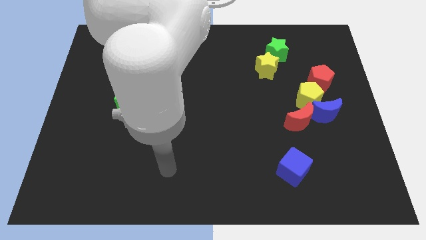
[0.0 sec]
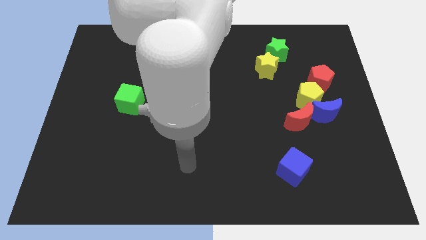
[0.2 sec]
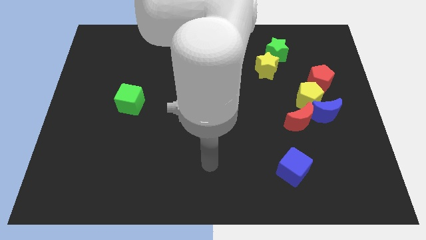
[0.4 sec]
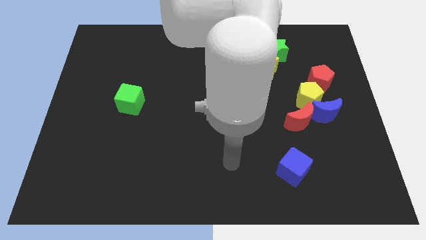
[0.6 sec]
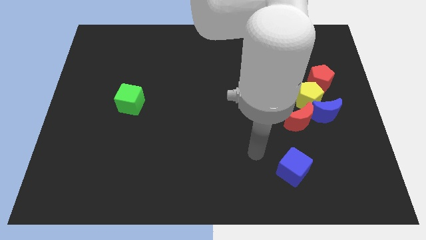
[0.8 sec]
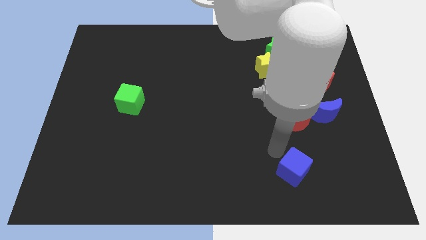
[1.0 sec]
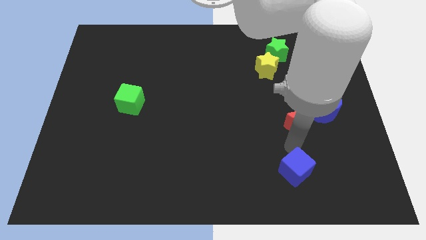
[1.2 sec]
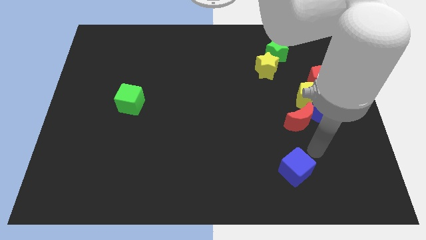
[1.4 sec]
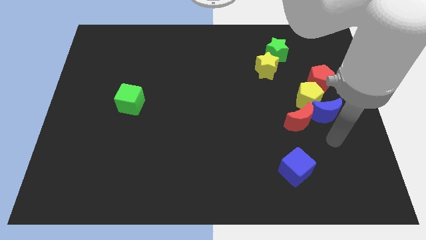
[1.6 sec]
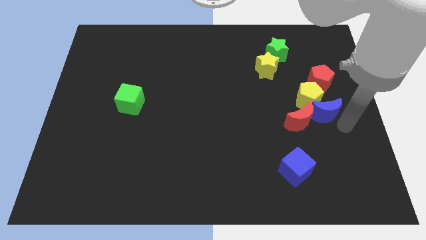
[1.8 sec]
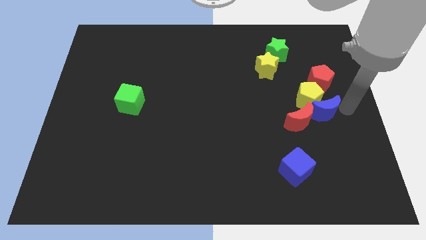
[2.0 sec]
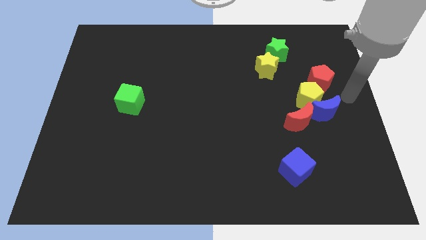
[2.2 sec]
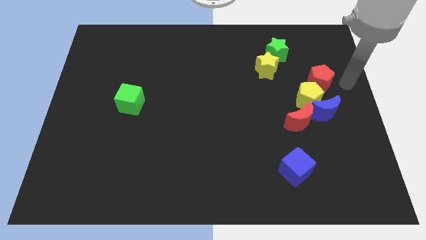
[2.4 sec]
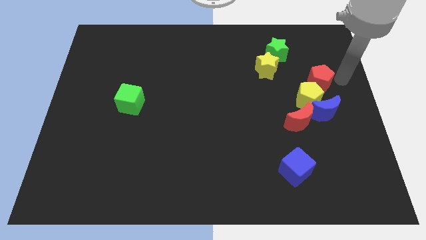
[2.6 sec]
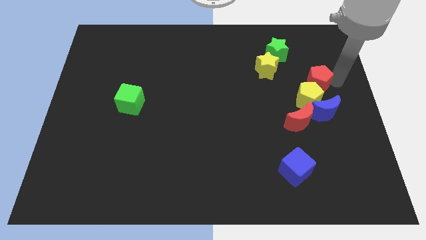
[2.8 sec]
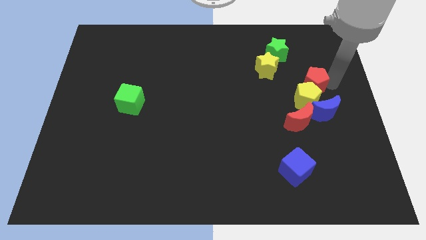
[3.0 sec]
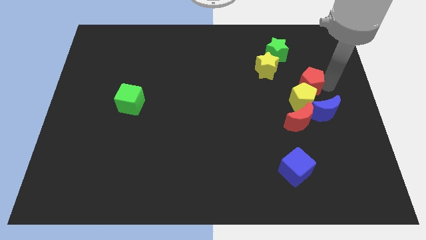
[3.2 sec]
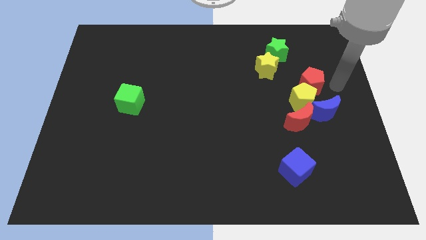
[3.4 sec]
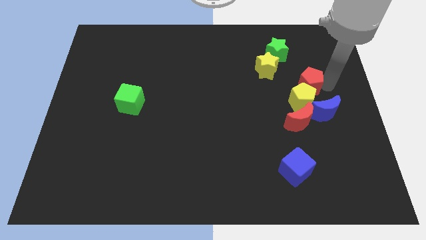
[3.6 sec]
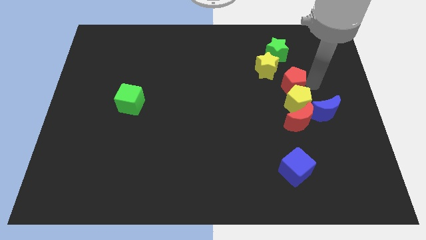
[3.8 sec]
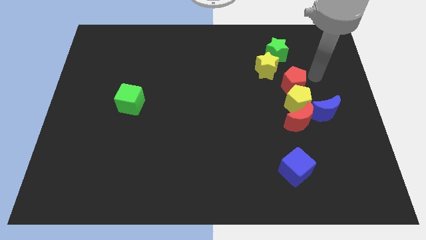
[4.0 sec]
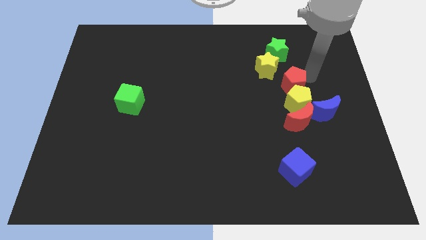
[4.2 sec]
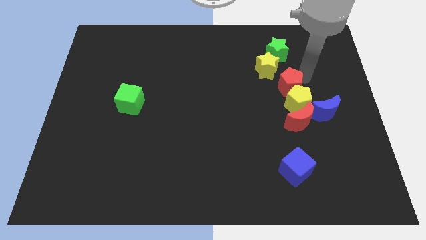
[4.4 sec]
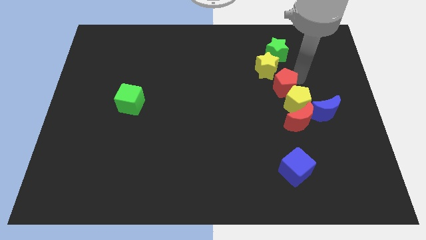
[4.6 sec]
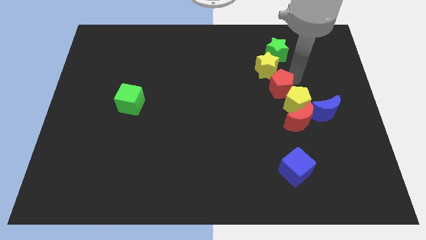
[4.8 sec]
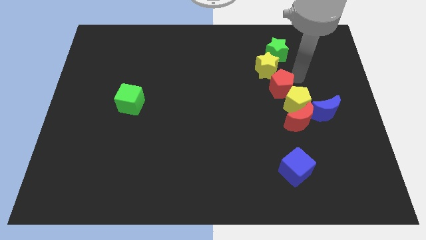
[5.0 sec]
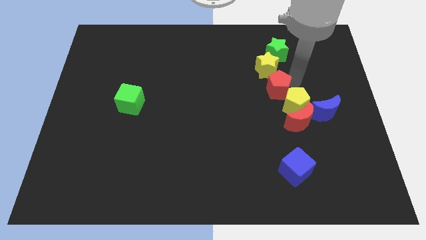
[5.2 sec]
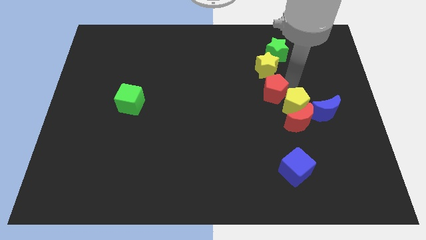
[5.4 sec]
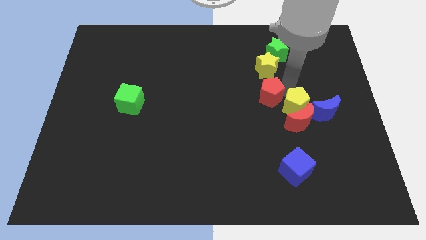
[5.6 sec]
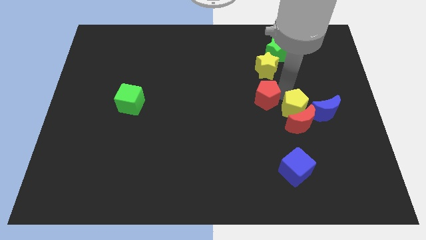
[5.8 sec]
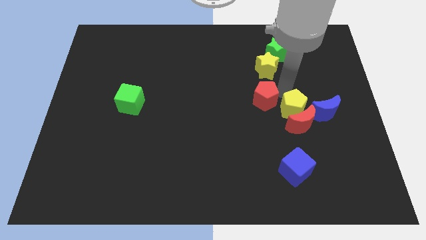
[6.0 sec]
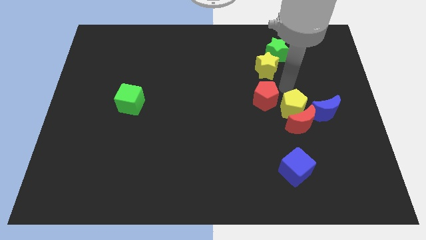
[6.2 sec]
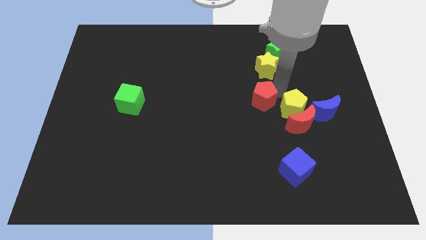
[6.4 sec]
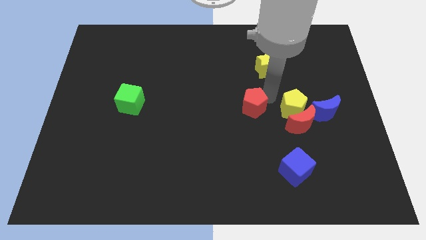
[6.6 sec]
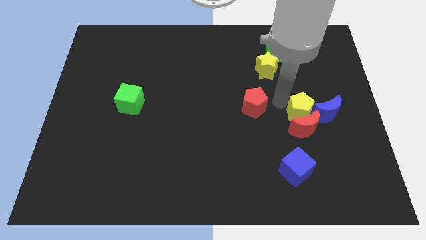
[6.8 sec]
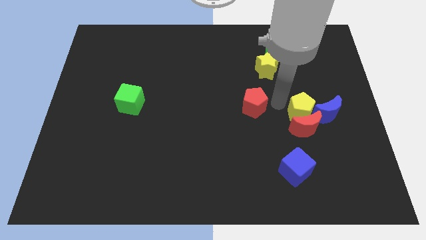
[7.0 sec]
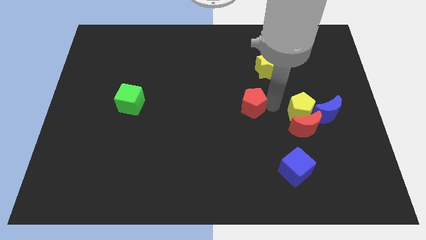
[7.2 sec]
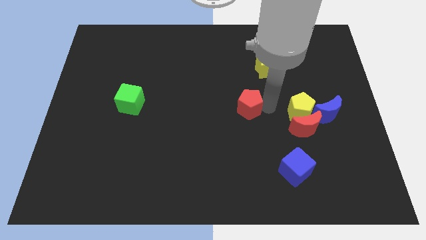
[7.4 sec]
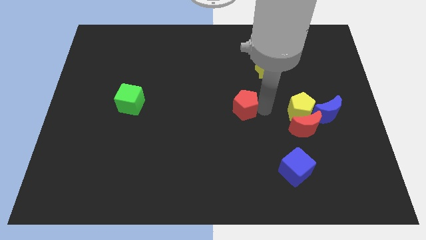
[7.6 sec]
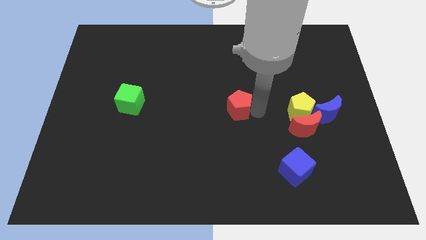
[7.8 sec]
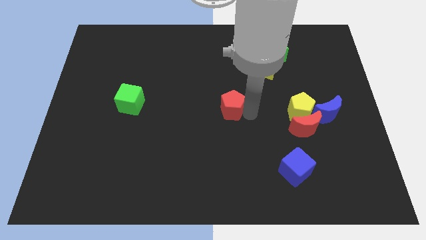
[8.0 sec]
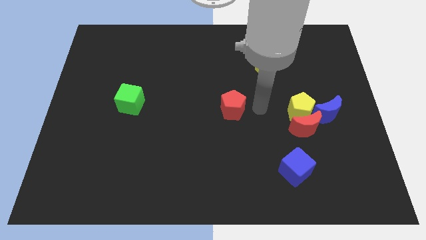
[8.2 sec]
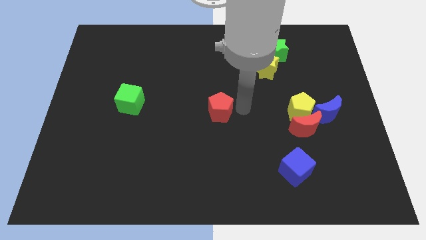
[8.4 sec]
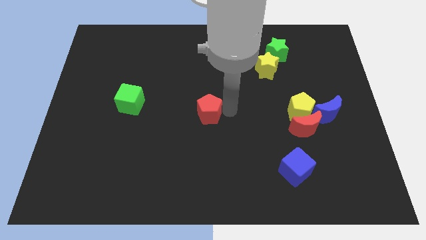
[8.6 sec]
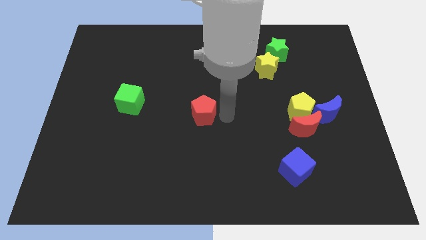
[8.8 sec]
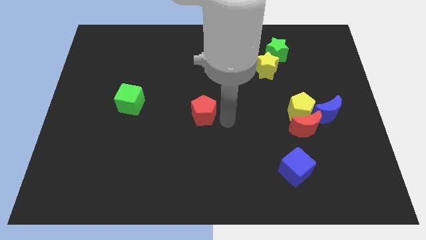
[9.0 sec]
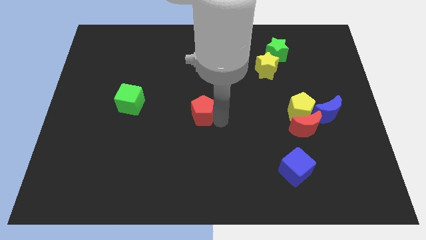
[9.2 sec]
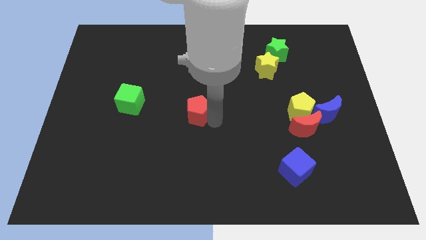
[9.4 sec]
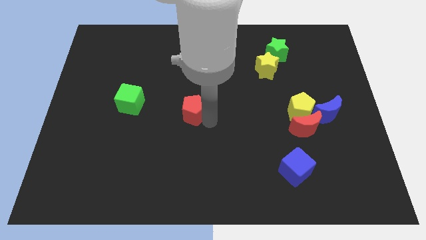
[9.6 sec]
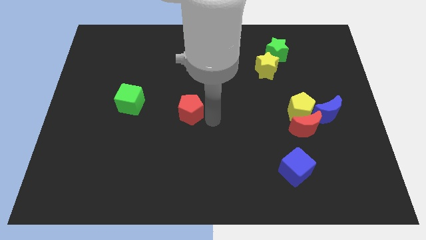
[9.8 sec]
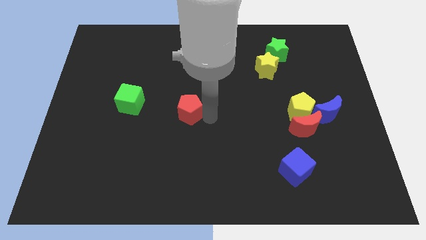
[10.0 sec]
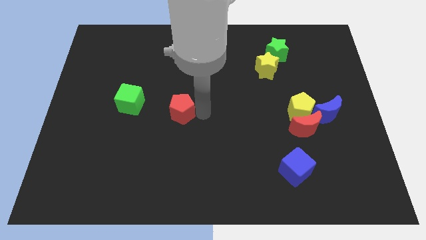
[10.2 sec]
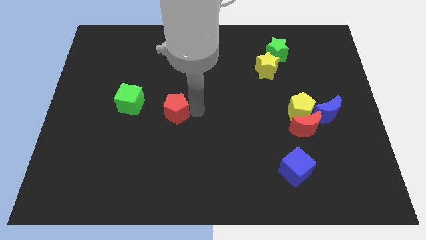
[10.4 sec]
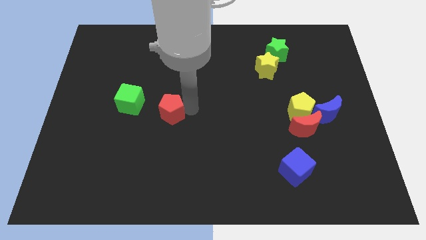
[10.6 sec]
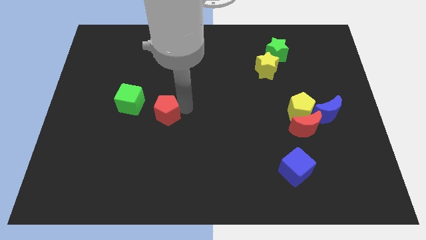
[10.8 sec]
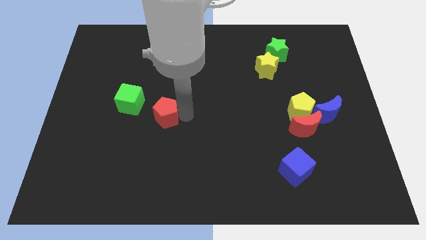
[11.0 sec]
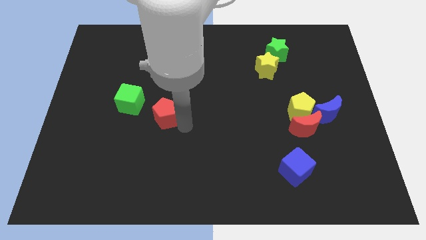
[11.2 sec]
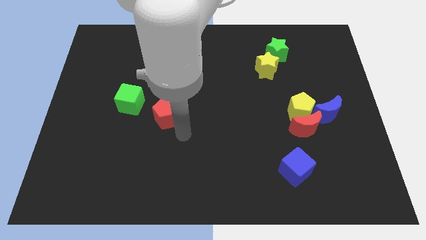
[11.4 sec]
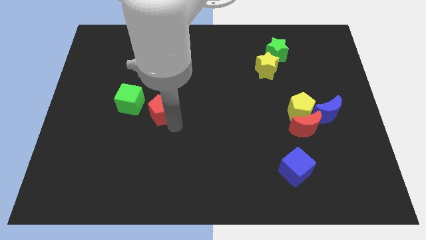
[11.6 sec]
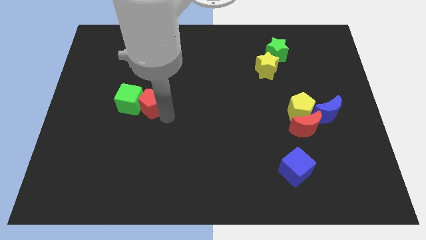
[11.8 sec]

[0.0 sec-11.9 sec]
push the red pentagon to the green cube

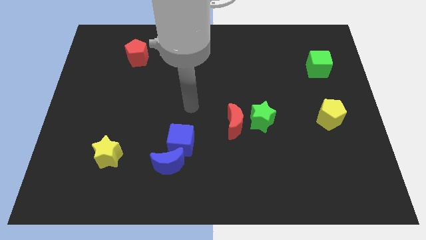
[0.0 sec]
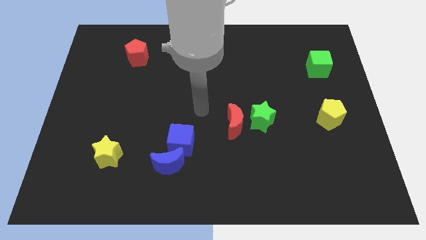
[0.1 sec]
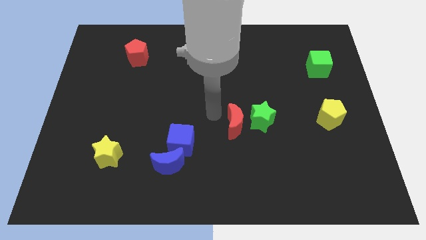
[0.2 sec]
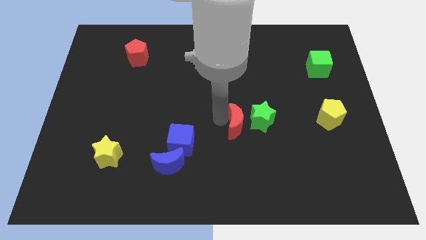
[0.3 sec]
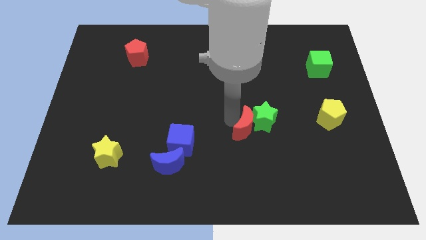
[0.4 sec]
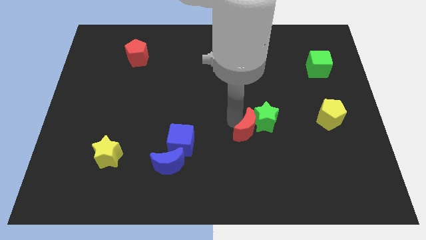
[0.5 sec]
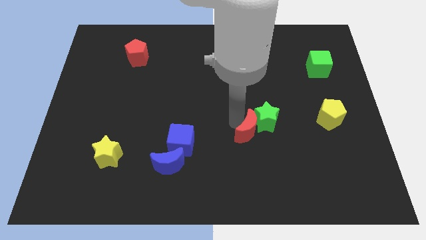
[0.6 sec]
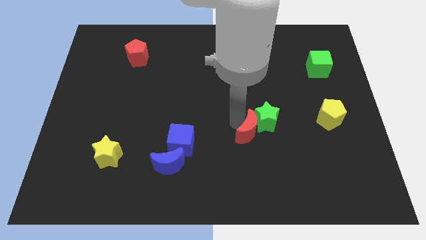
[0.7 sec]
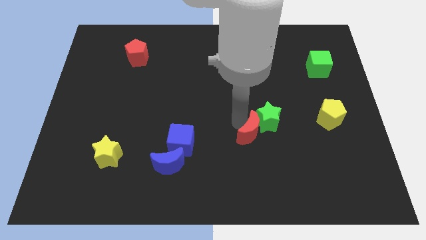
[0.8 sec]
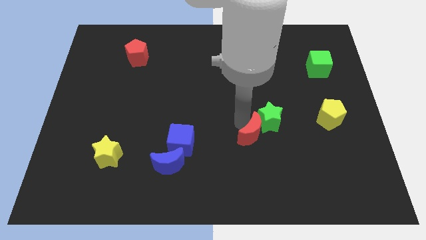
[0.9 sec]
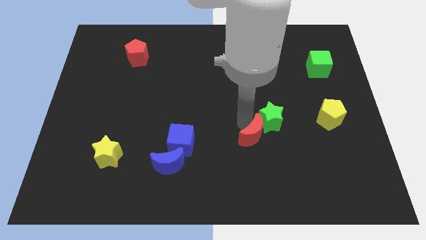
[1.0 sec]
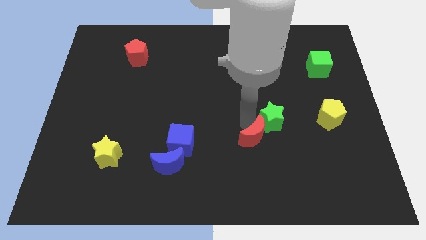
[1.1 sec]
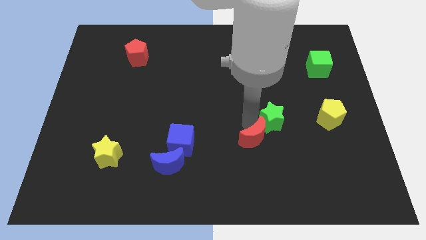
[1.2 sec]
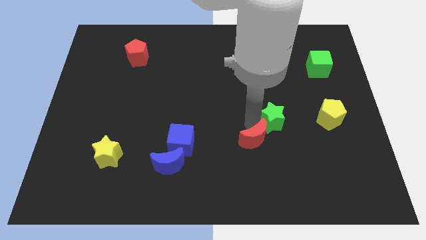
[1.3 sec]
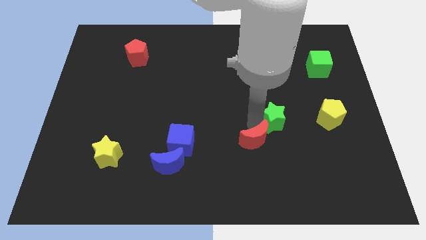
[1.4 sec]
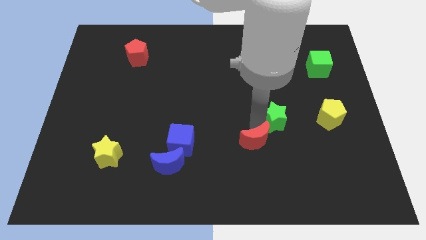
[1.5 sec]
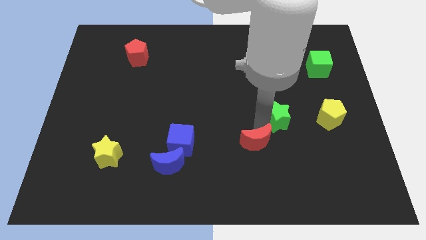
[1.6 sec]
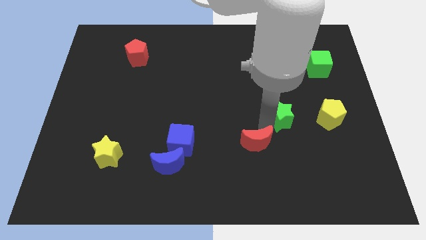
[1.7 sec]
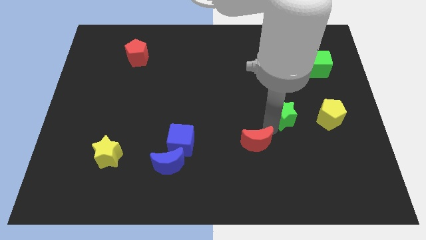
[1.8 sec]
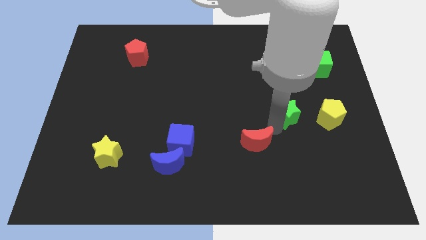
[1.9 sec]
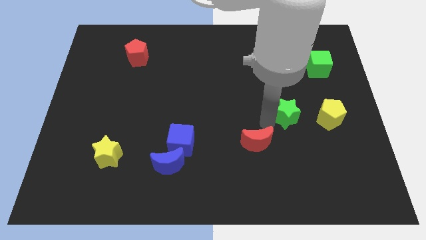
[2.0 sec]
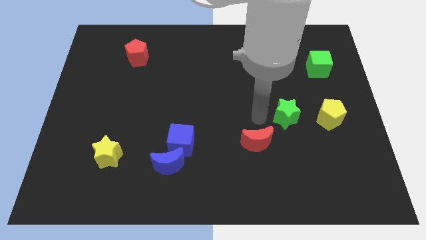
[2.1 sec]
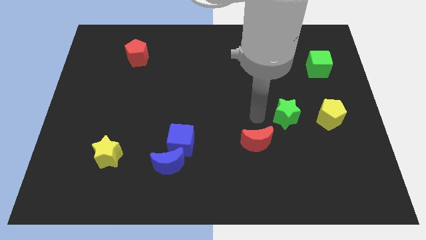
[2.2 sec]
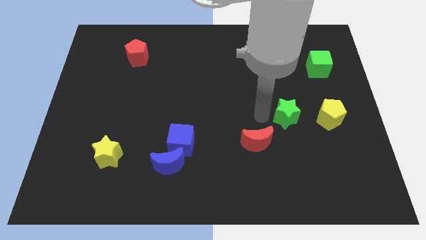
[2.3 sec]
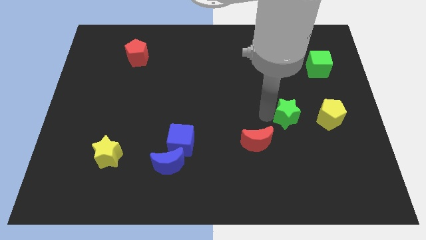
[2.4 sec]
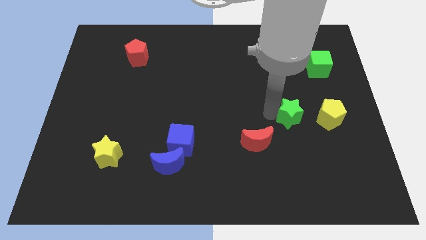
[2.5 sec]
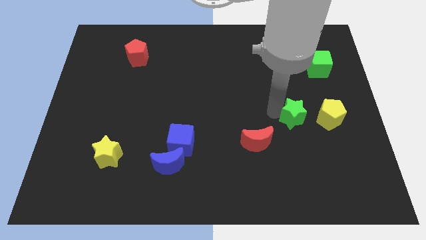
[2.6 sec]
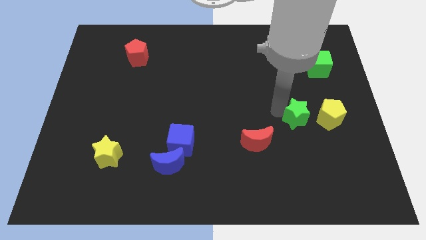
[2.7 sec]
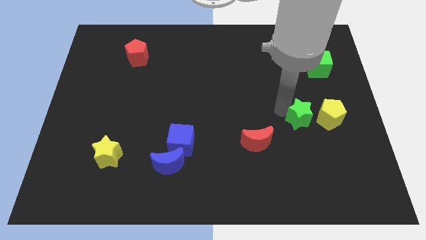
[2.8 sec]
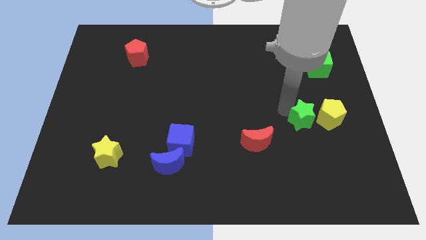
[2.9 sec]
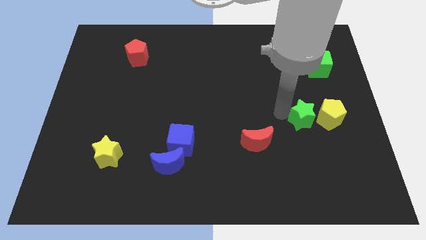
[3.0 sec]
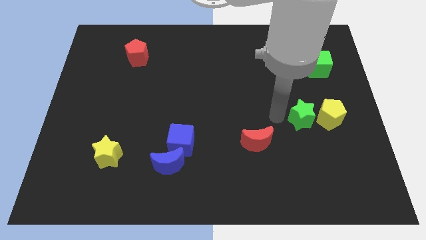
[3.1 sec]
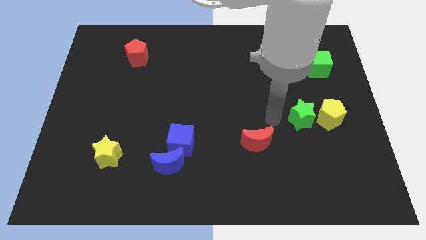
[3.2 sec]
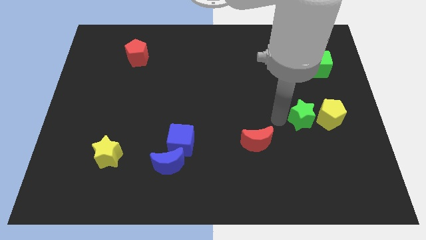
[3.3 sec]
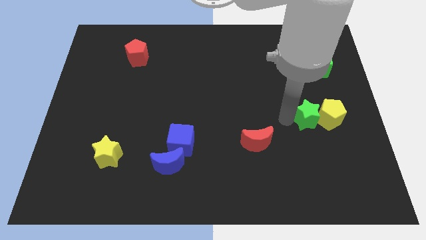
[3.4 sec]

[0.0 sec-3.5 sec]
slide the green star towards the yellow pentagon
